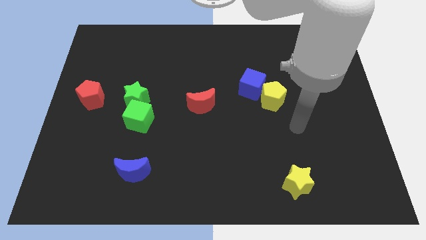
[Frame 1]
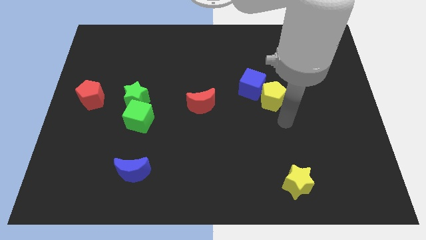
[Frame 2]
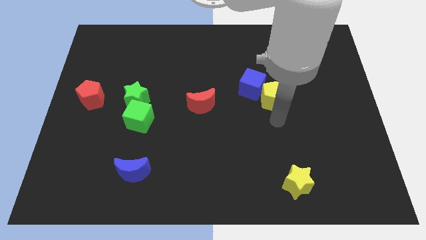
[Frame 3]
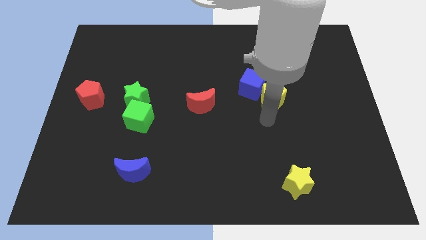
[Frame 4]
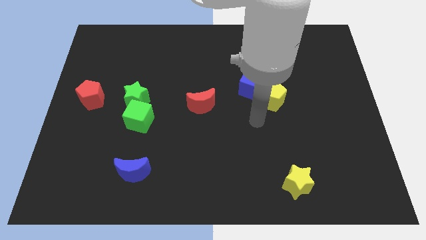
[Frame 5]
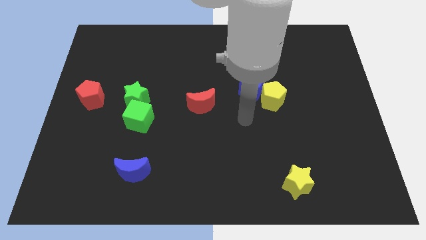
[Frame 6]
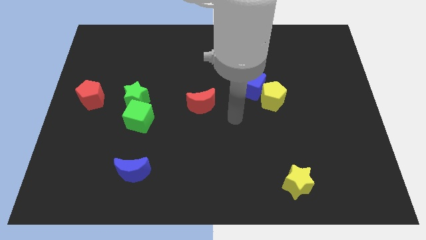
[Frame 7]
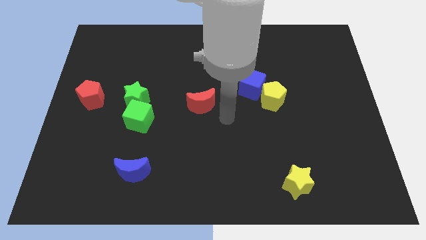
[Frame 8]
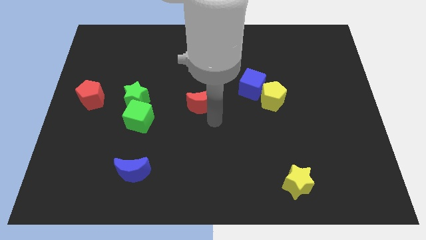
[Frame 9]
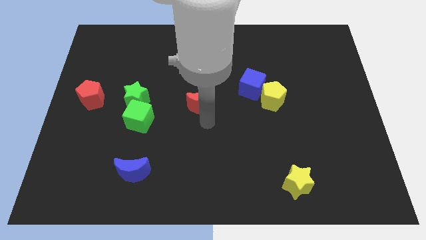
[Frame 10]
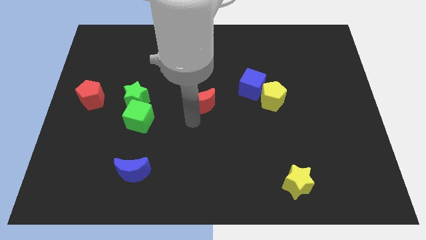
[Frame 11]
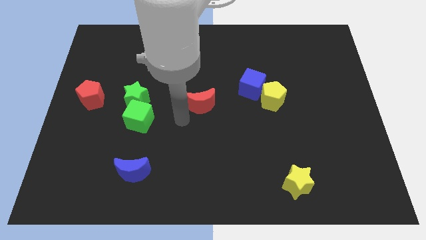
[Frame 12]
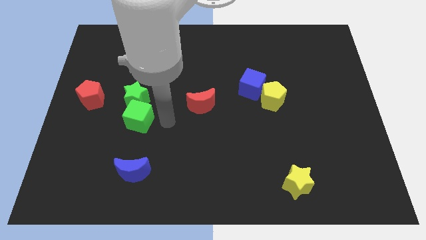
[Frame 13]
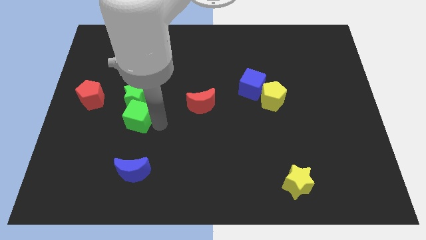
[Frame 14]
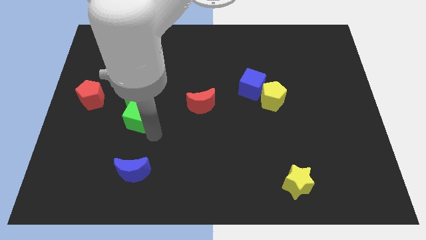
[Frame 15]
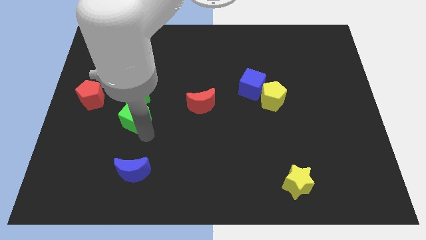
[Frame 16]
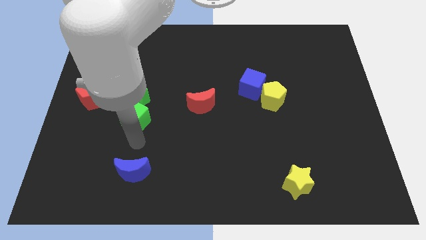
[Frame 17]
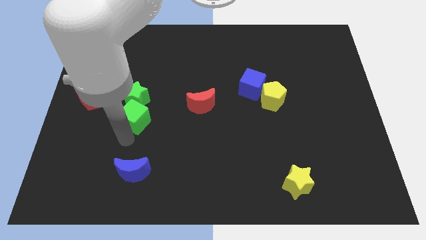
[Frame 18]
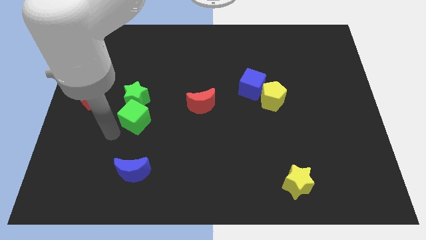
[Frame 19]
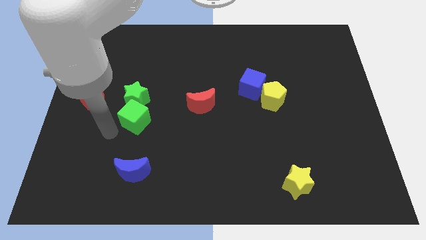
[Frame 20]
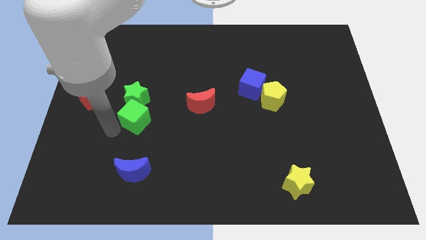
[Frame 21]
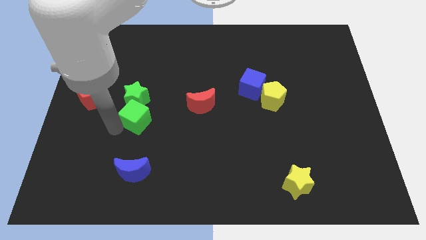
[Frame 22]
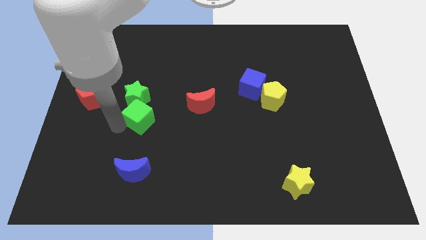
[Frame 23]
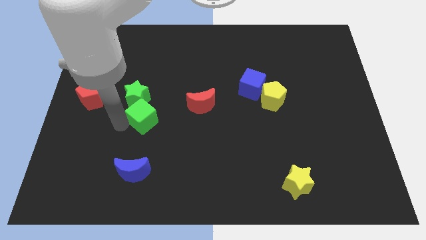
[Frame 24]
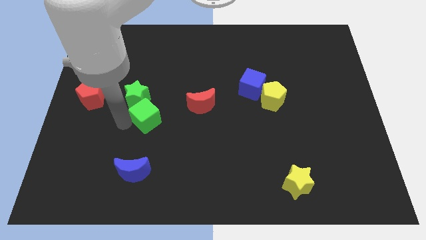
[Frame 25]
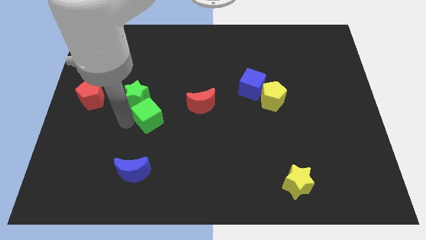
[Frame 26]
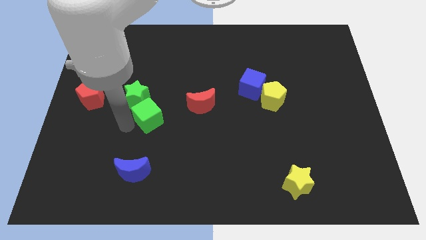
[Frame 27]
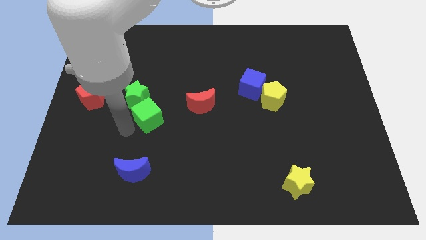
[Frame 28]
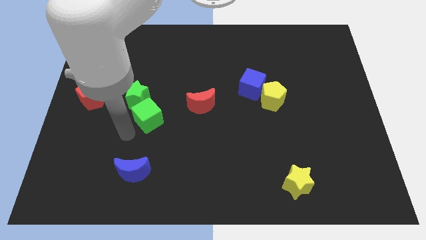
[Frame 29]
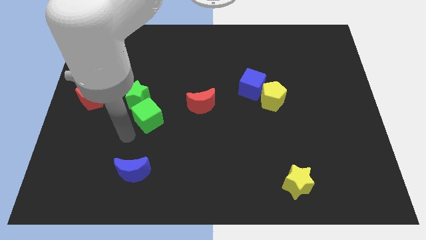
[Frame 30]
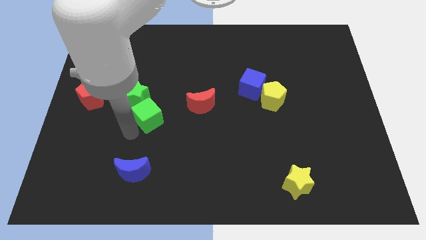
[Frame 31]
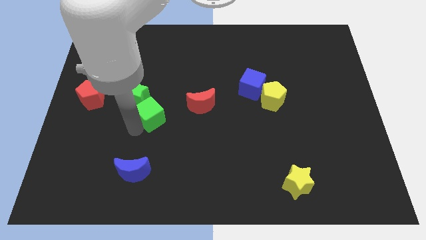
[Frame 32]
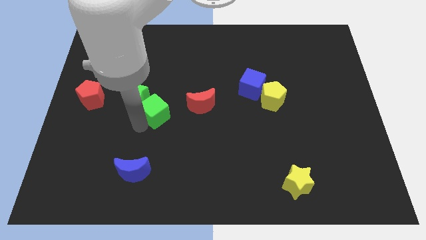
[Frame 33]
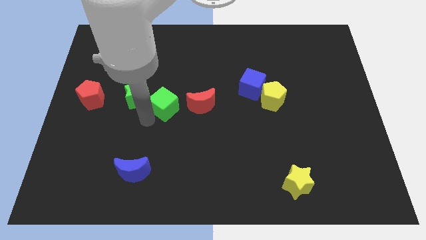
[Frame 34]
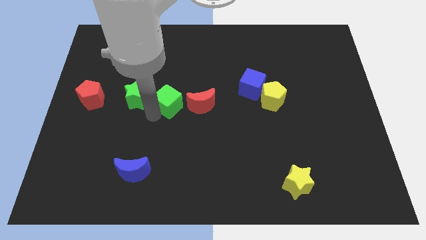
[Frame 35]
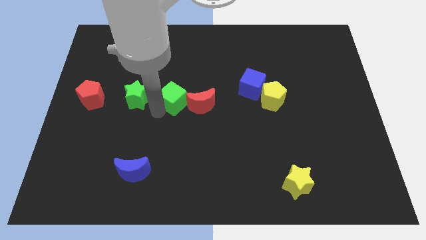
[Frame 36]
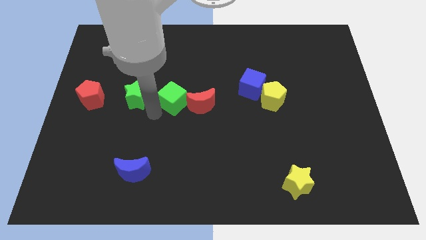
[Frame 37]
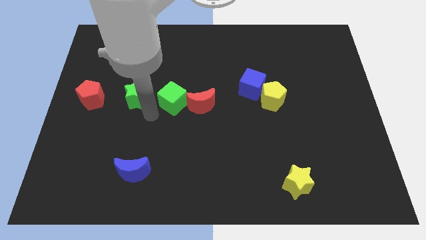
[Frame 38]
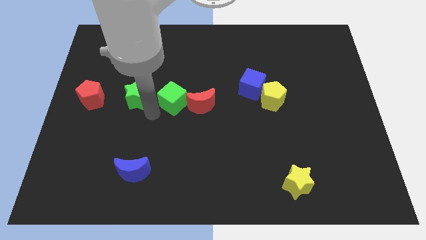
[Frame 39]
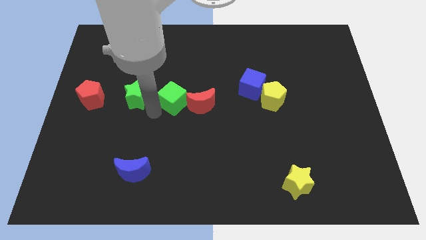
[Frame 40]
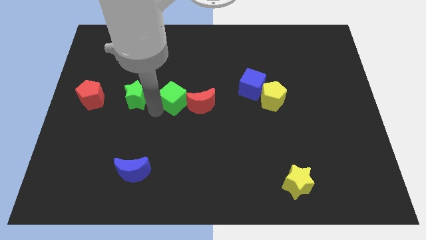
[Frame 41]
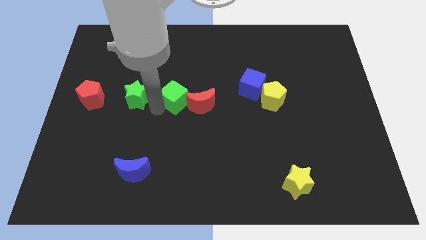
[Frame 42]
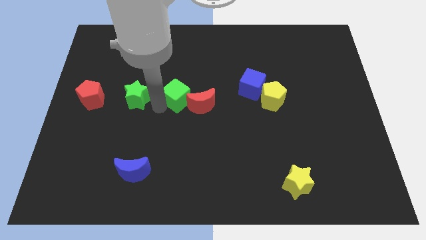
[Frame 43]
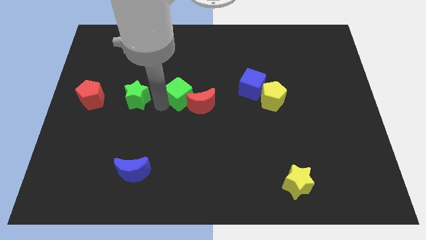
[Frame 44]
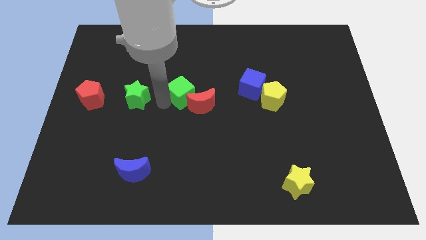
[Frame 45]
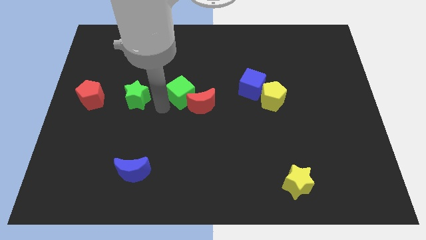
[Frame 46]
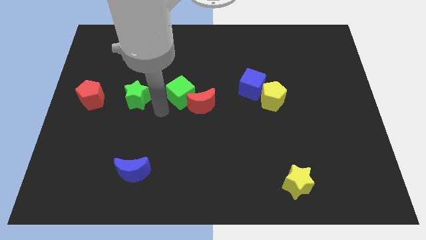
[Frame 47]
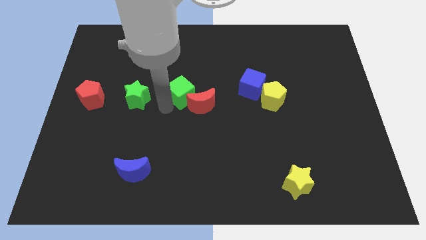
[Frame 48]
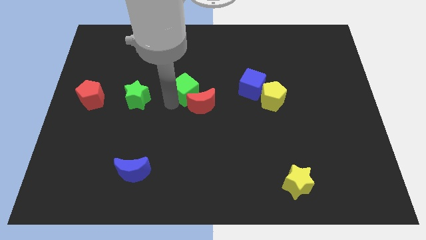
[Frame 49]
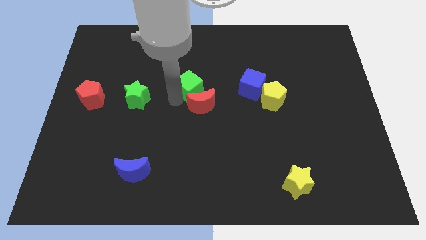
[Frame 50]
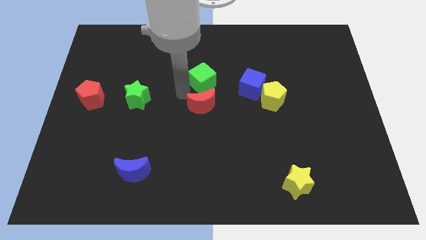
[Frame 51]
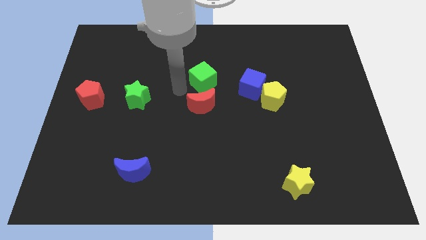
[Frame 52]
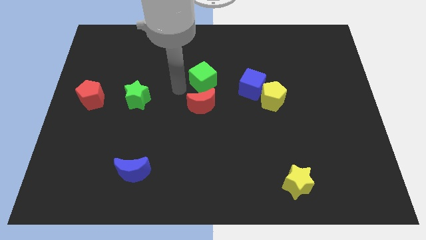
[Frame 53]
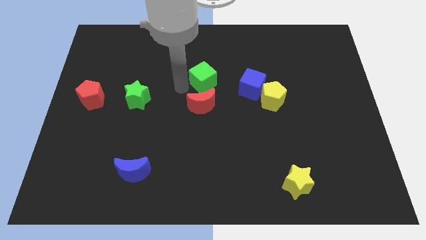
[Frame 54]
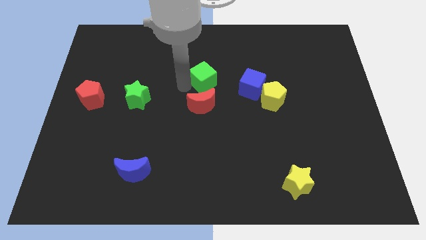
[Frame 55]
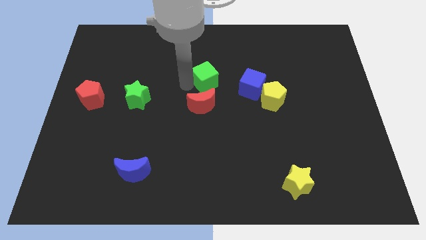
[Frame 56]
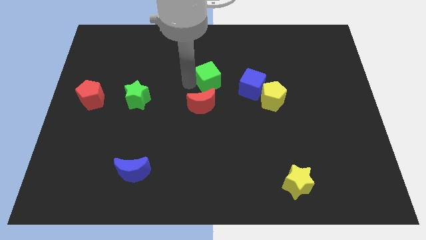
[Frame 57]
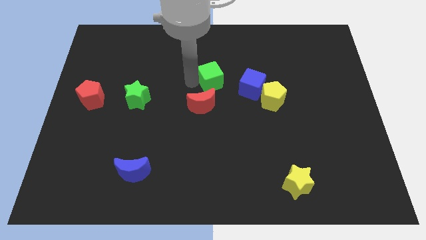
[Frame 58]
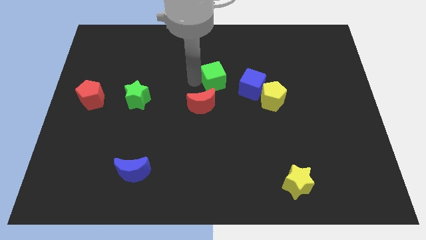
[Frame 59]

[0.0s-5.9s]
move the green cube diagonally up and to the left of the blue cube

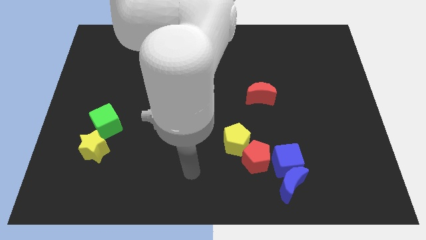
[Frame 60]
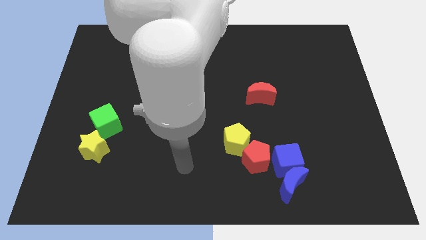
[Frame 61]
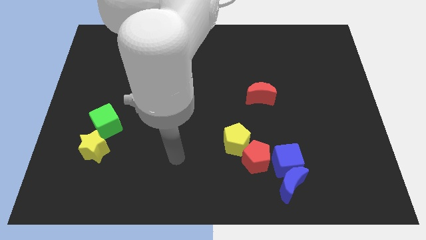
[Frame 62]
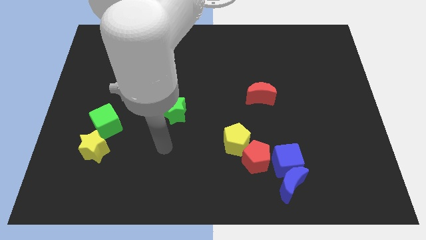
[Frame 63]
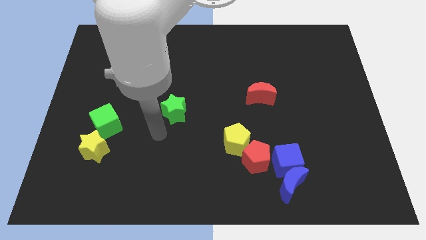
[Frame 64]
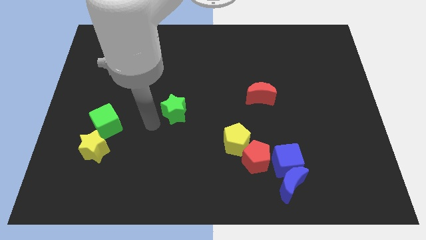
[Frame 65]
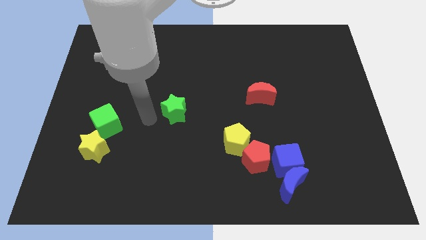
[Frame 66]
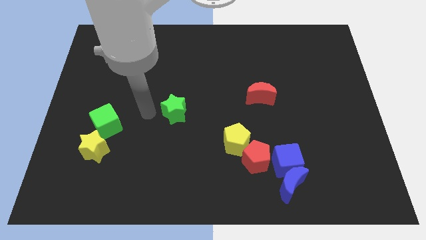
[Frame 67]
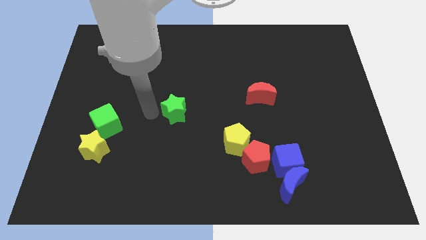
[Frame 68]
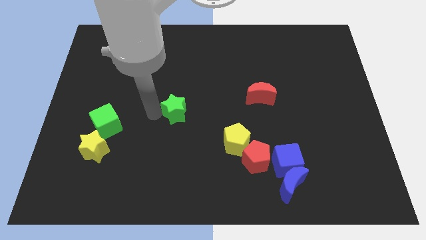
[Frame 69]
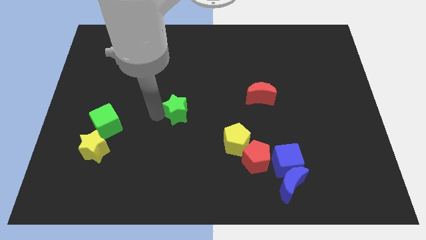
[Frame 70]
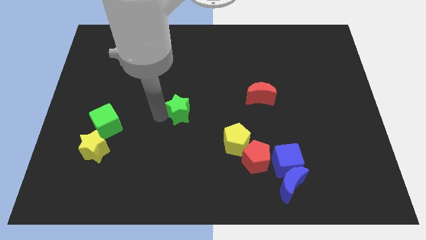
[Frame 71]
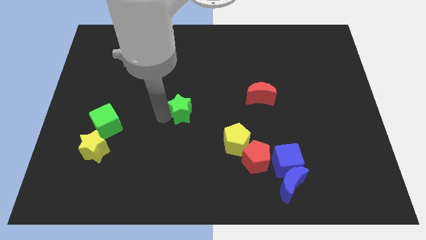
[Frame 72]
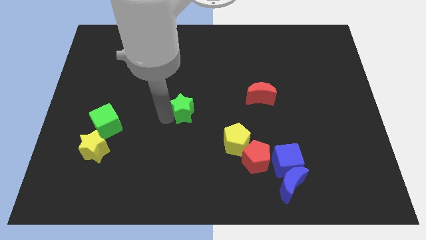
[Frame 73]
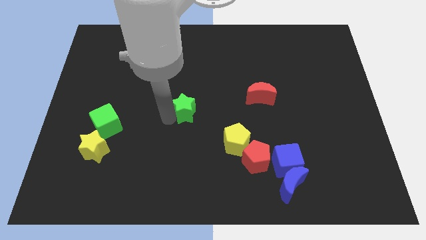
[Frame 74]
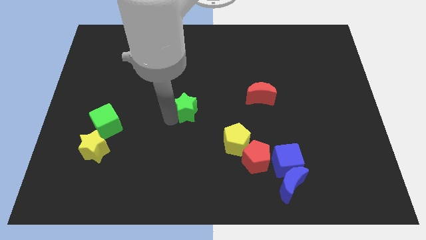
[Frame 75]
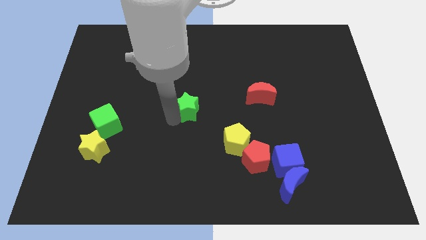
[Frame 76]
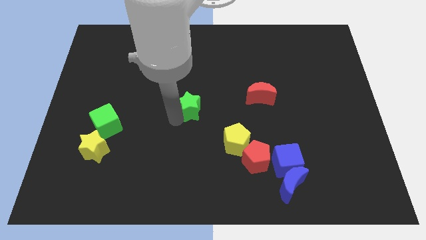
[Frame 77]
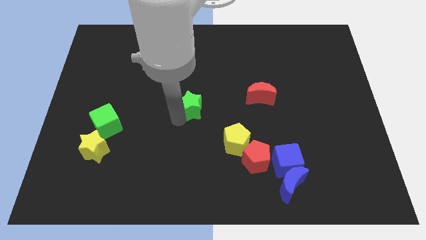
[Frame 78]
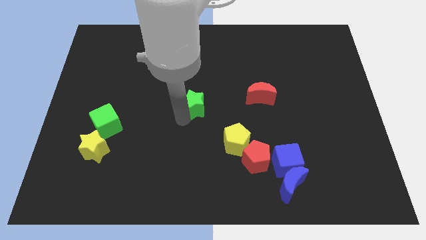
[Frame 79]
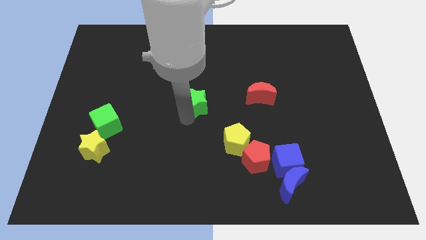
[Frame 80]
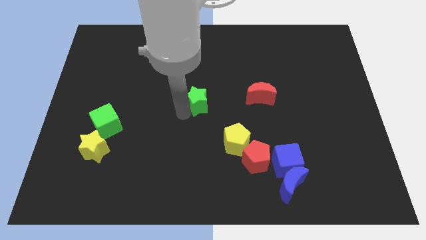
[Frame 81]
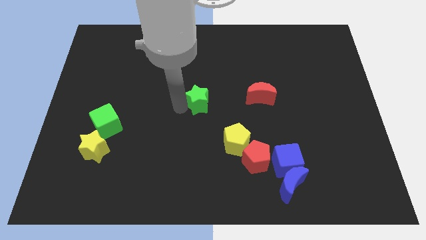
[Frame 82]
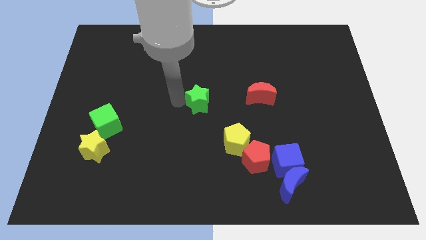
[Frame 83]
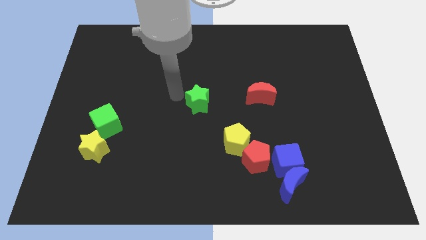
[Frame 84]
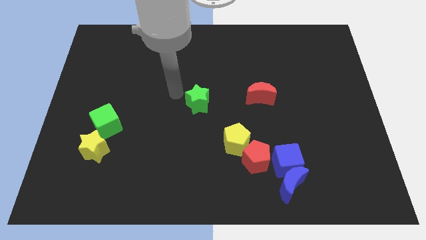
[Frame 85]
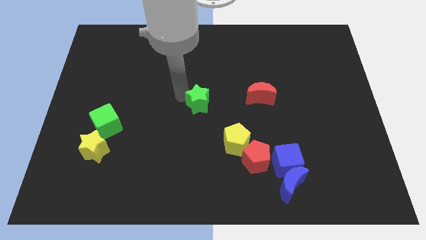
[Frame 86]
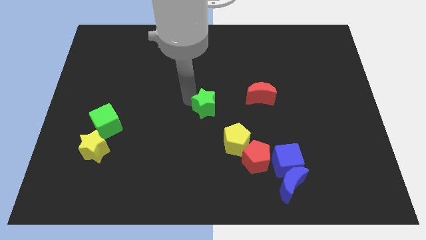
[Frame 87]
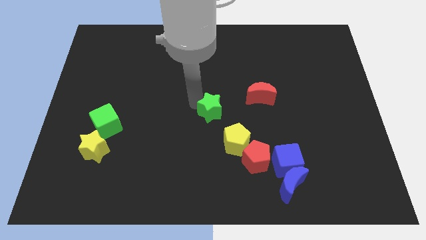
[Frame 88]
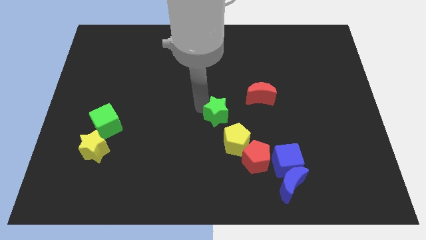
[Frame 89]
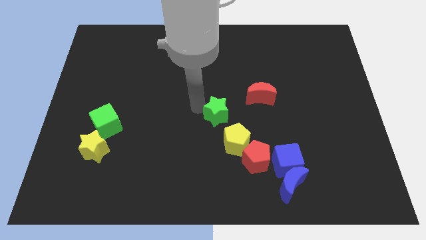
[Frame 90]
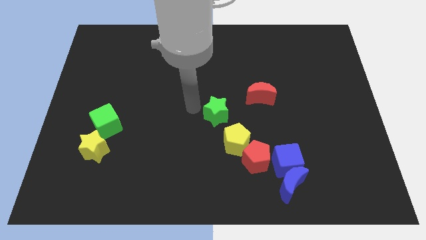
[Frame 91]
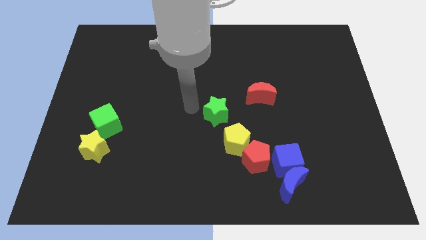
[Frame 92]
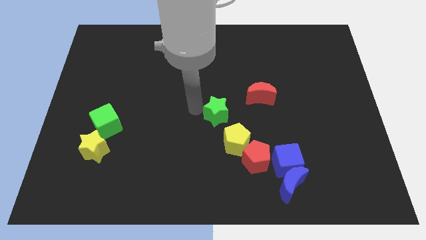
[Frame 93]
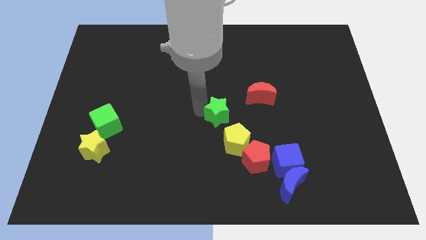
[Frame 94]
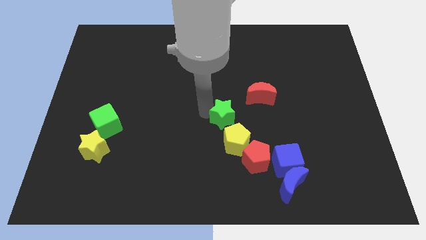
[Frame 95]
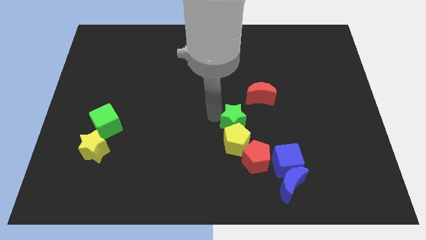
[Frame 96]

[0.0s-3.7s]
put the green star to the top right side of the yellow pentagon
